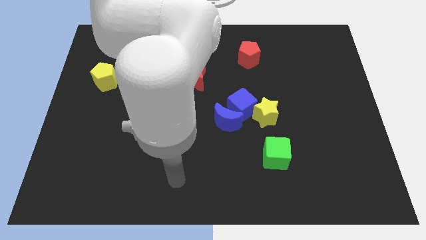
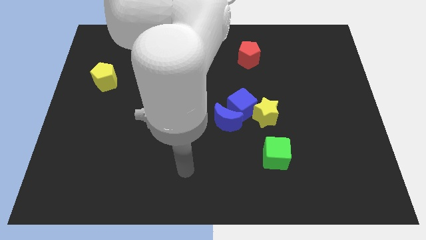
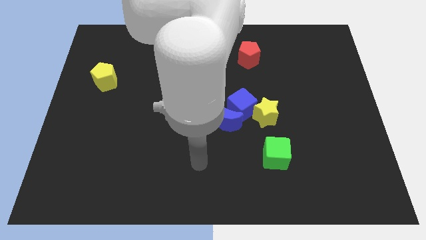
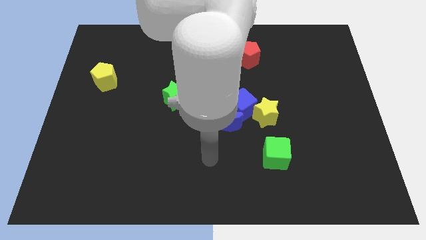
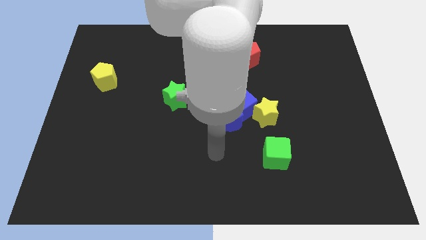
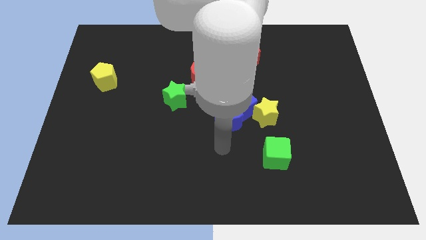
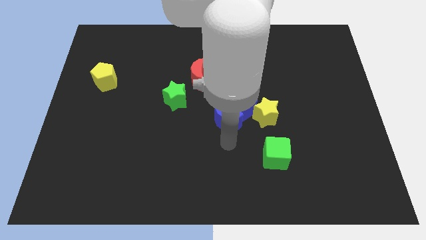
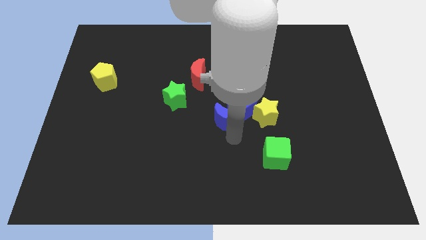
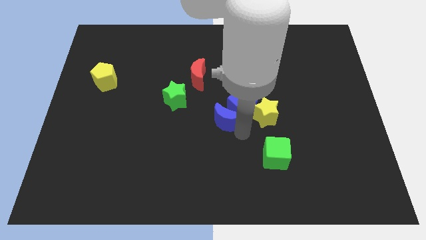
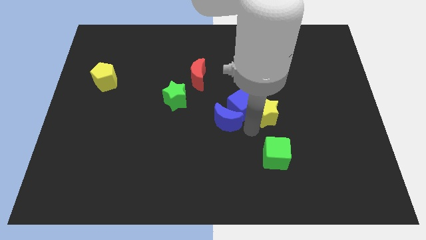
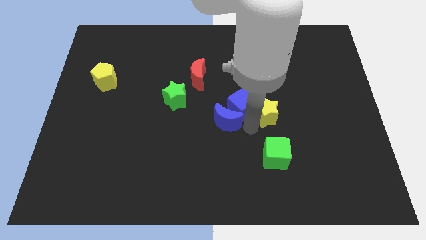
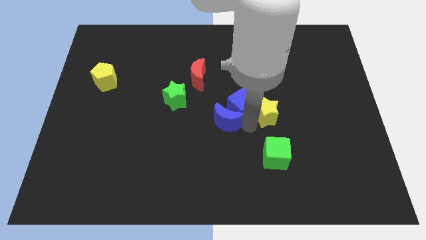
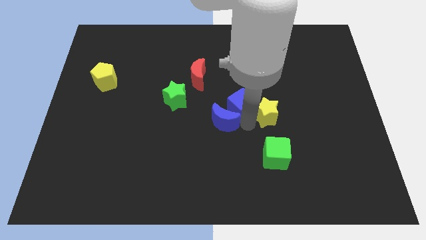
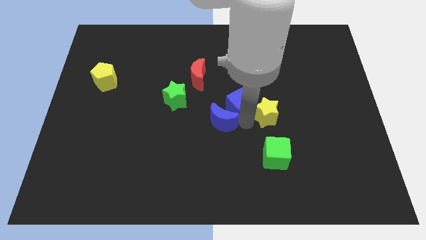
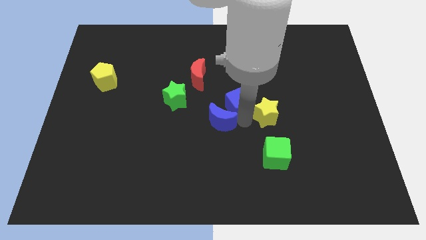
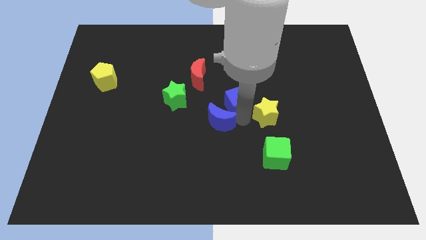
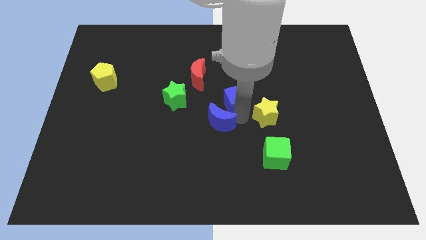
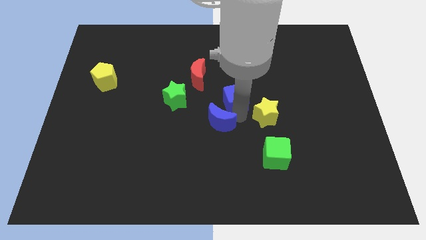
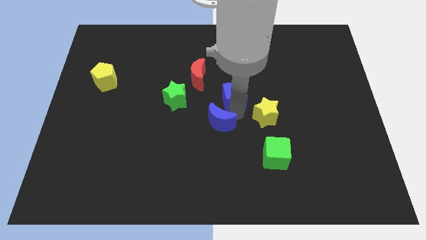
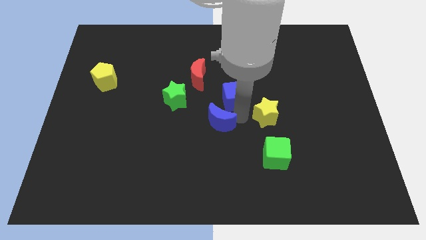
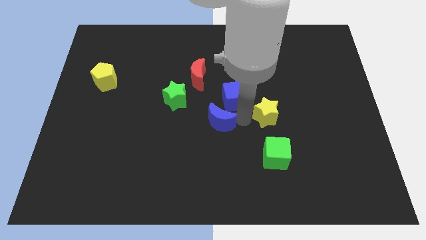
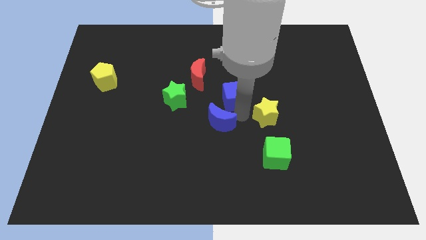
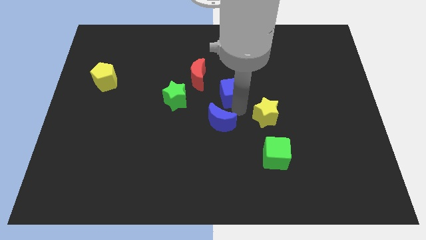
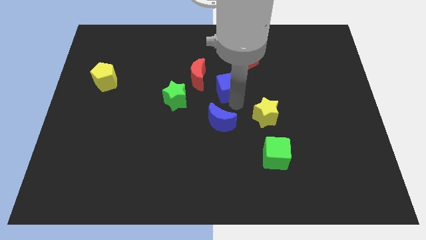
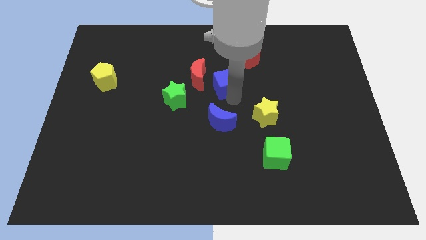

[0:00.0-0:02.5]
move the blue cube away from the blue moon and yellow star

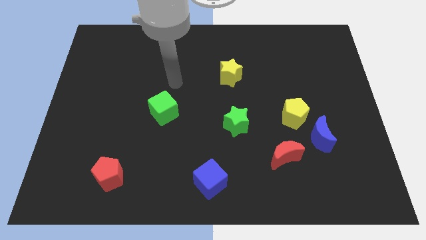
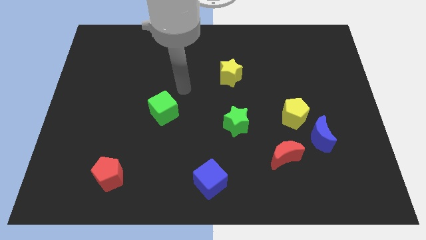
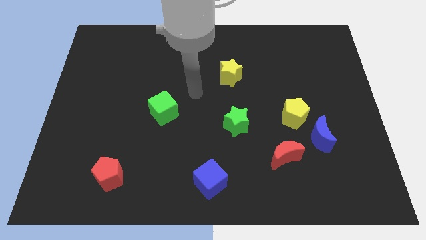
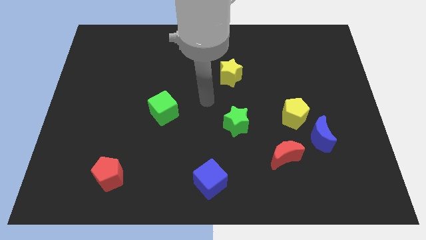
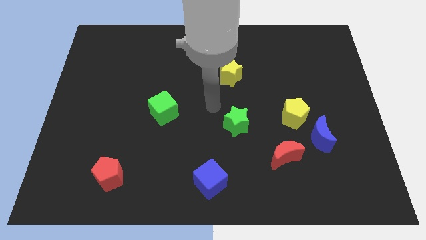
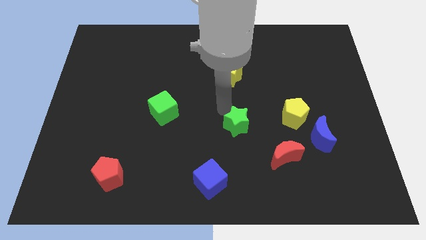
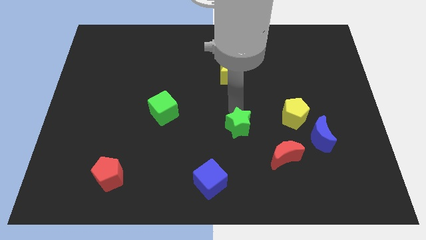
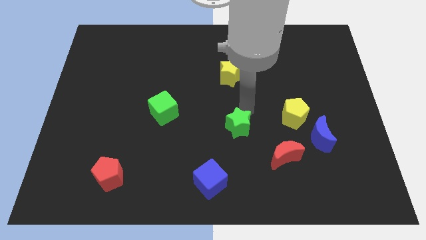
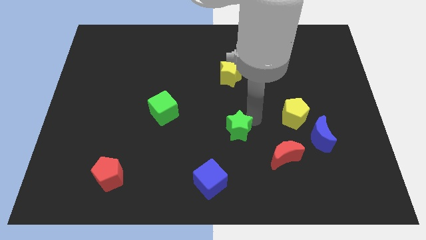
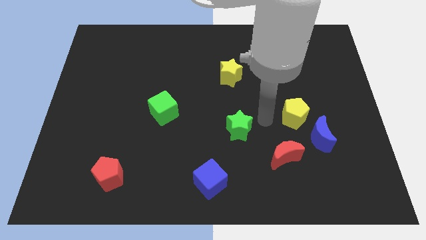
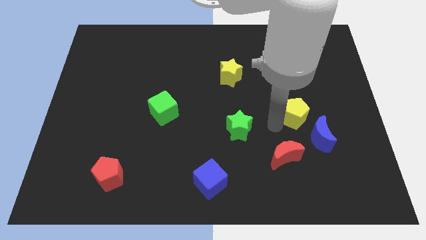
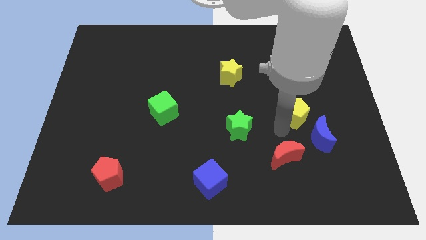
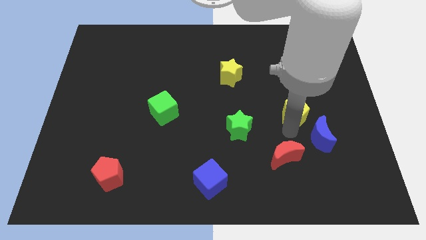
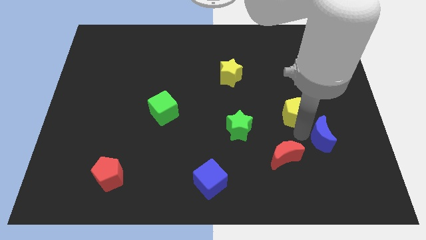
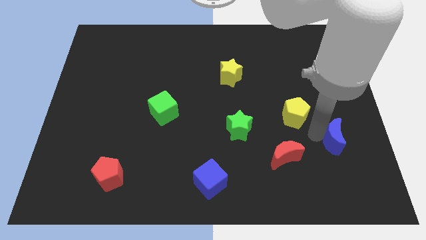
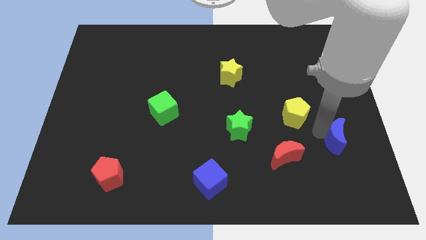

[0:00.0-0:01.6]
move the yellow pentagon away from the blue moon

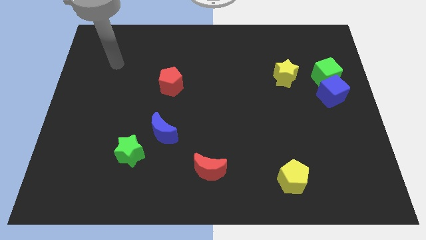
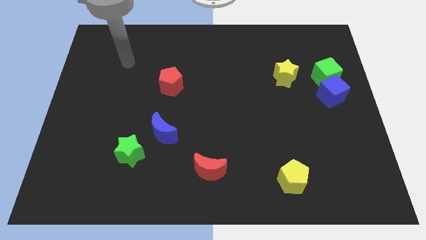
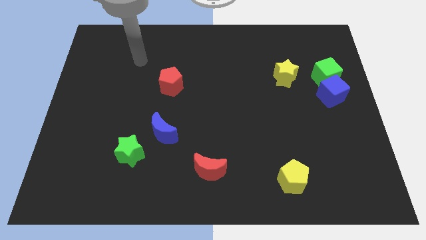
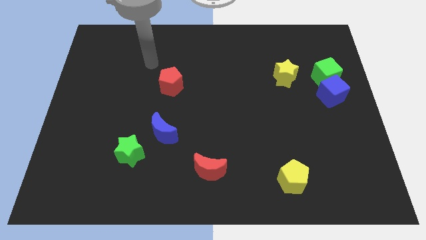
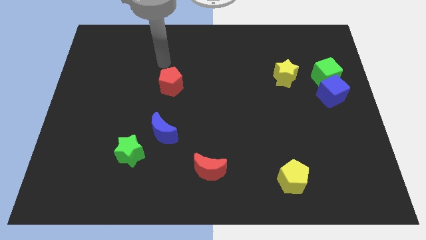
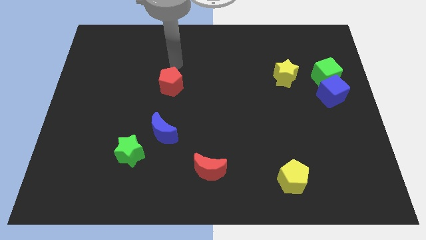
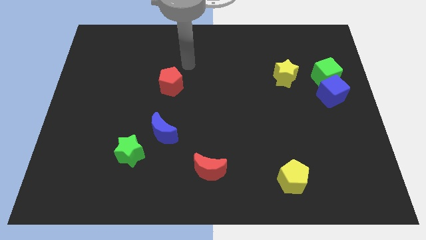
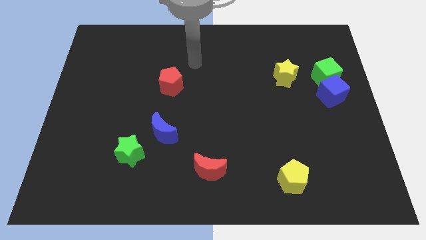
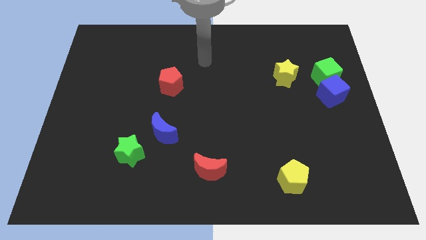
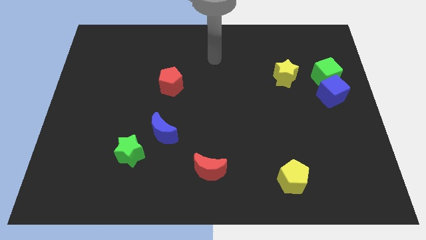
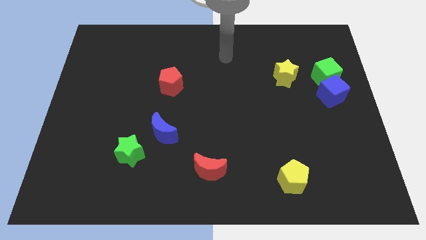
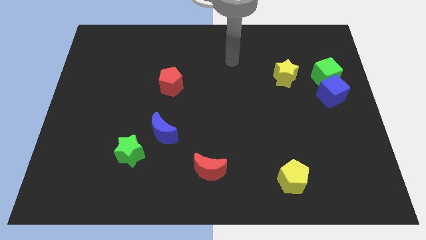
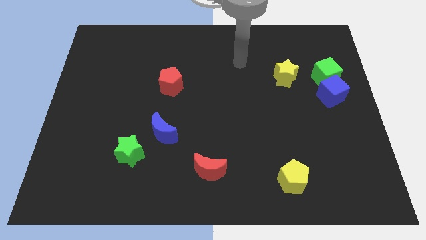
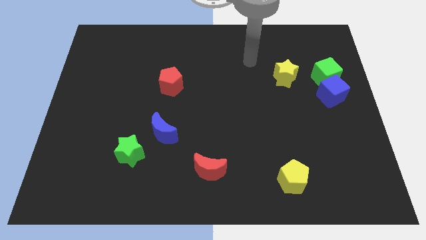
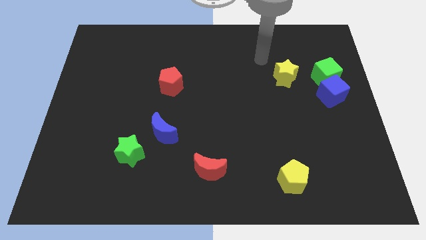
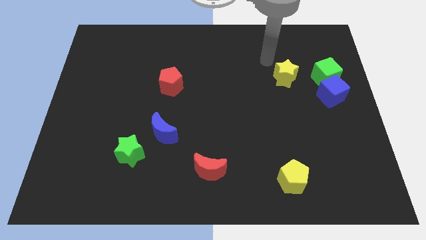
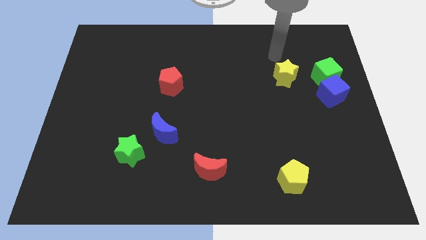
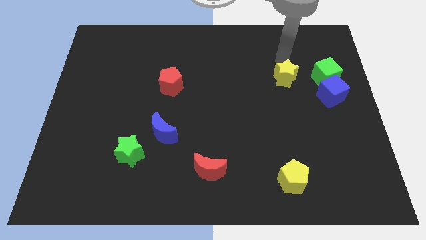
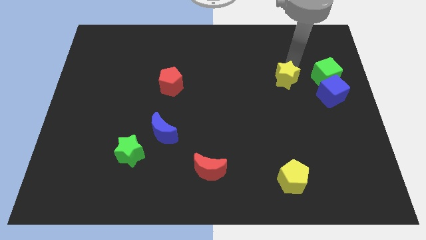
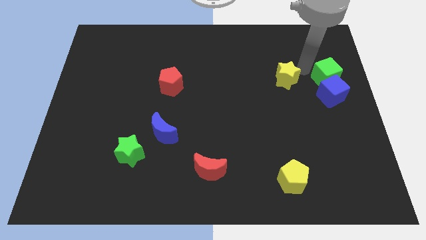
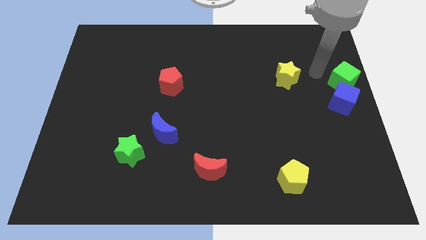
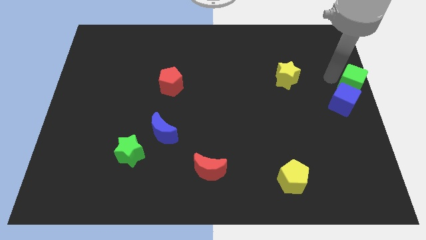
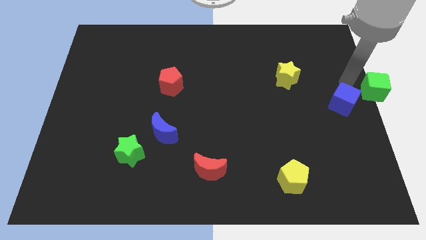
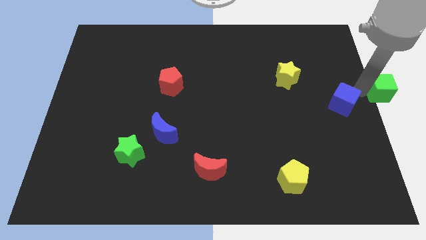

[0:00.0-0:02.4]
separate the blue cube from the green cube

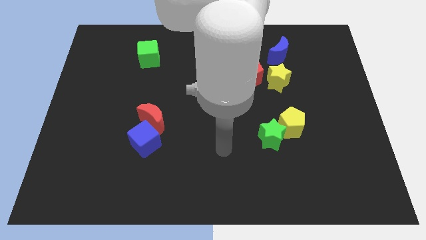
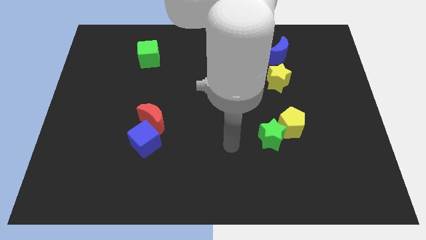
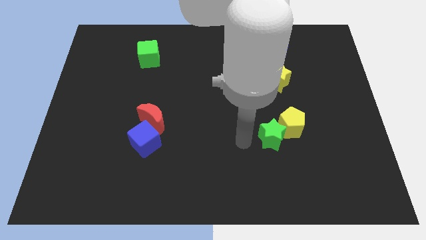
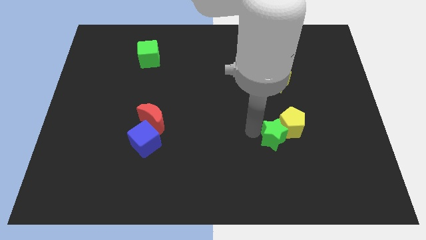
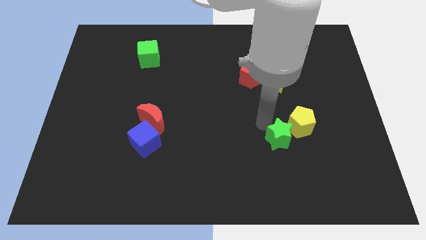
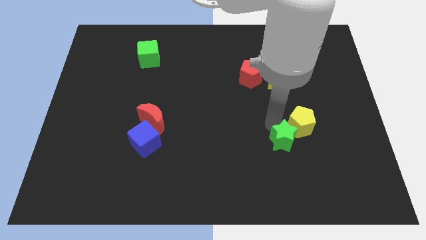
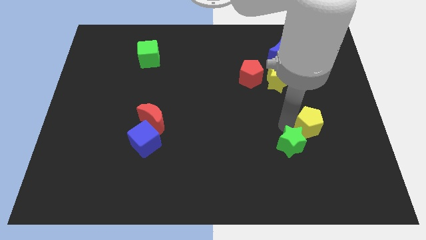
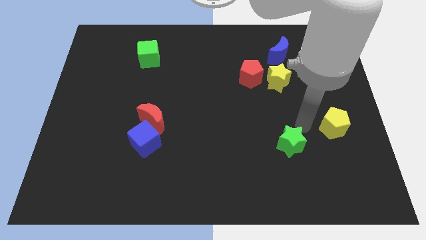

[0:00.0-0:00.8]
pull the green star apart from the yellow pentagon

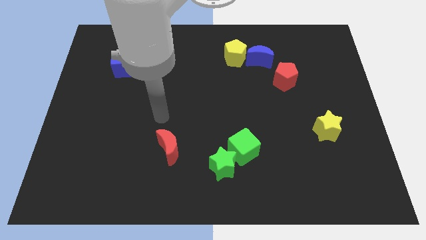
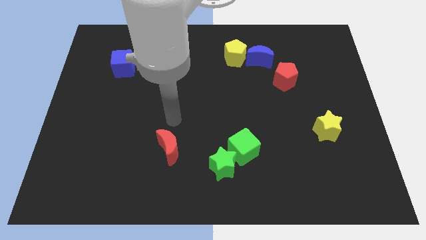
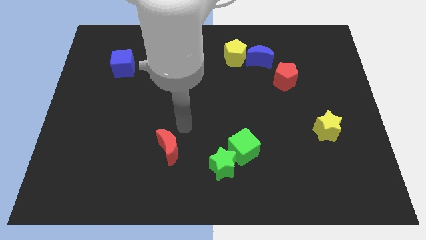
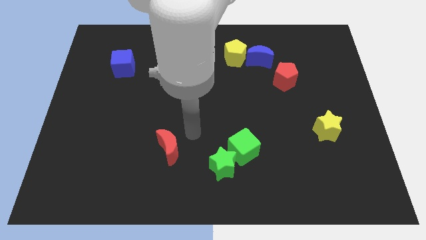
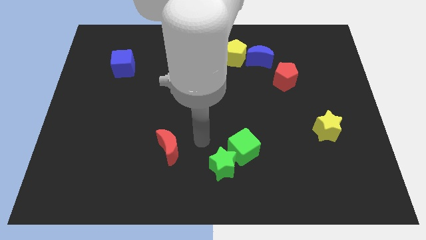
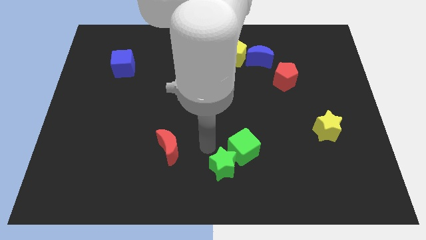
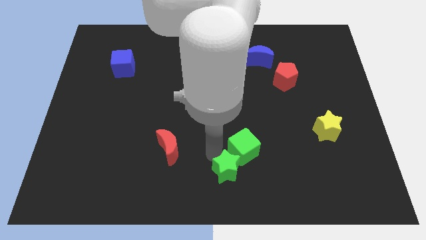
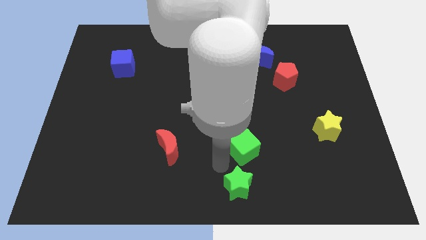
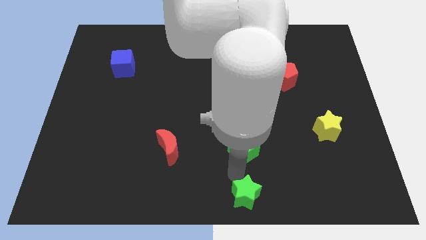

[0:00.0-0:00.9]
separate the green cube from the green star

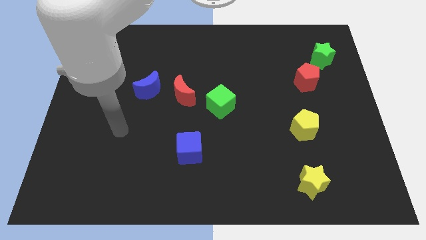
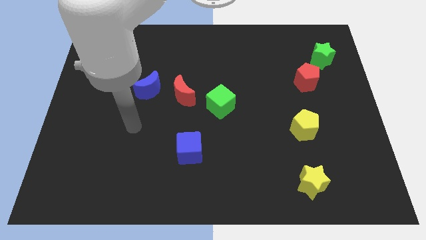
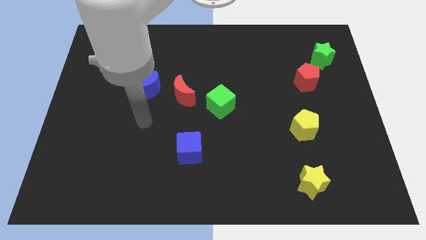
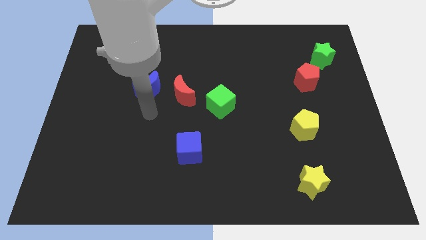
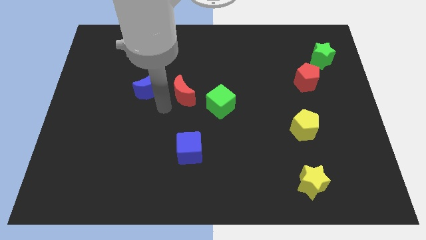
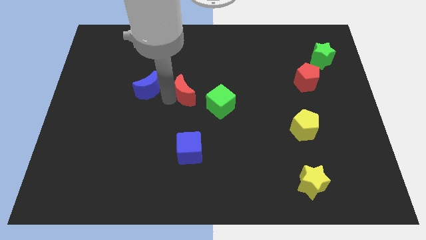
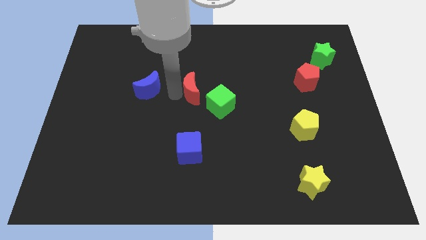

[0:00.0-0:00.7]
pull the blue moon apart from the red moon

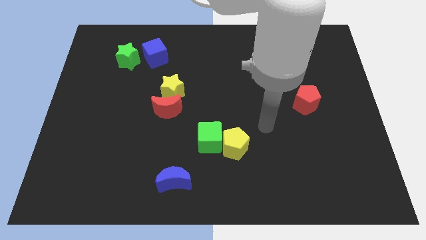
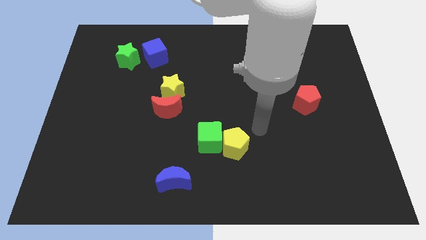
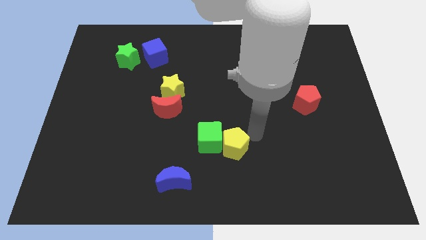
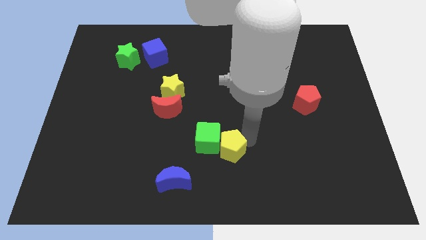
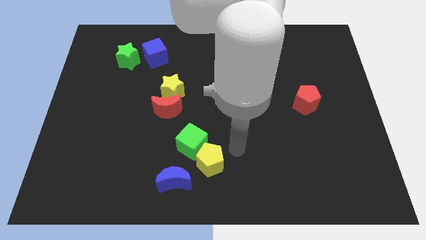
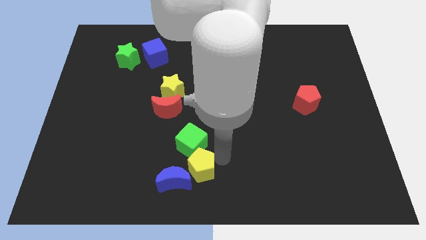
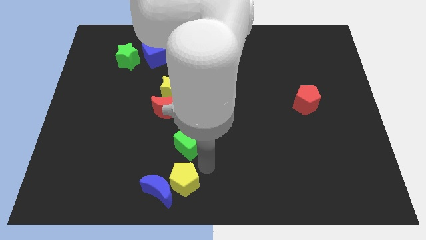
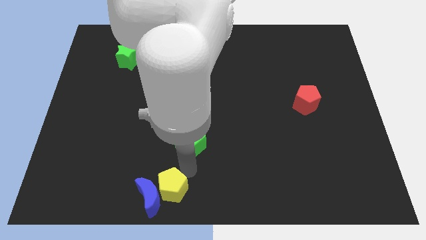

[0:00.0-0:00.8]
separate the green cube from the yellow pentagon
